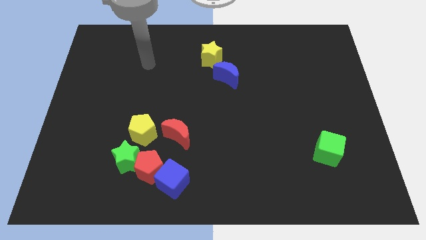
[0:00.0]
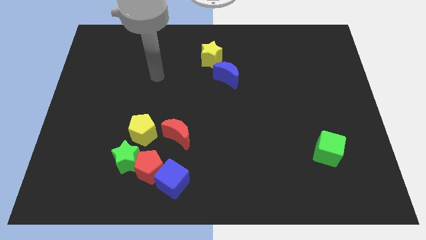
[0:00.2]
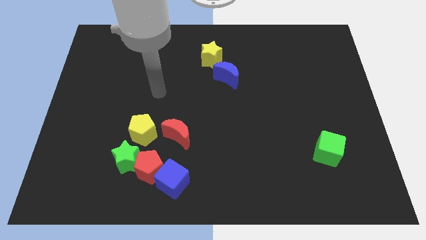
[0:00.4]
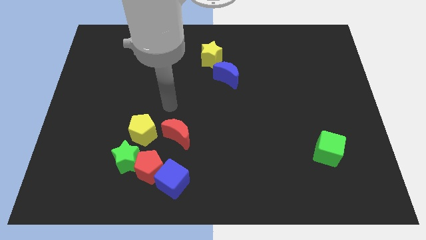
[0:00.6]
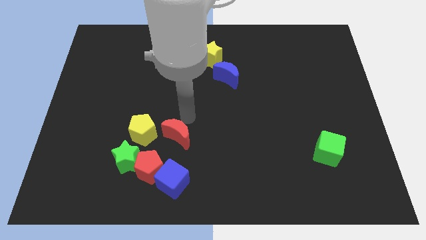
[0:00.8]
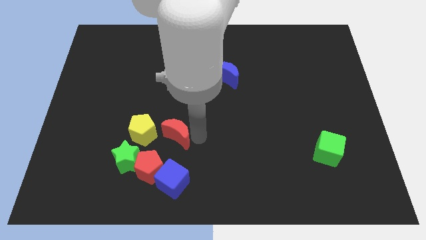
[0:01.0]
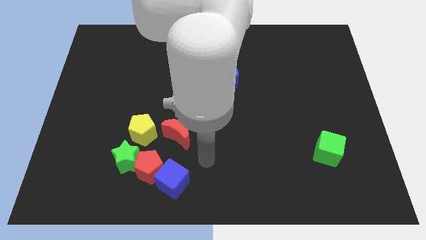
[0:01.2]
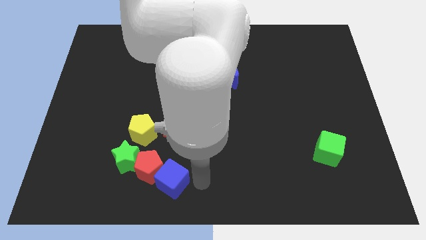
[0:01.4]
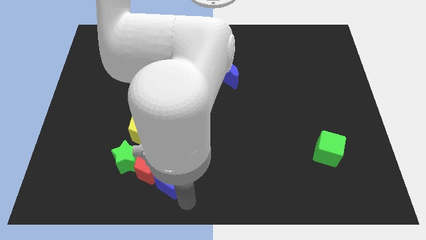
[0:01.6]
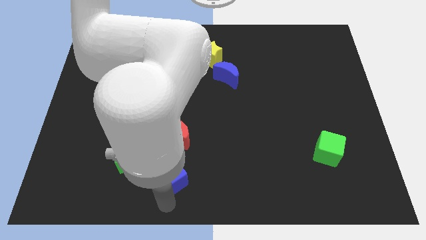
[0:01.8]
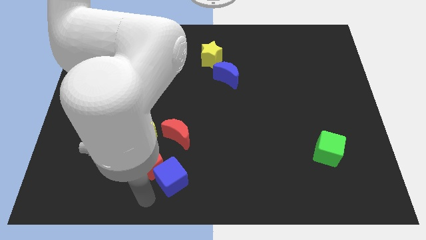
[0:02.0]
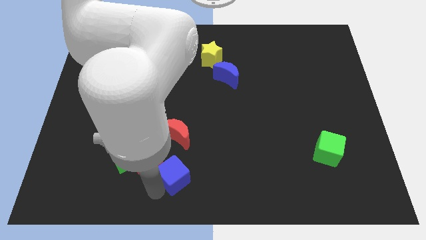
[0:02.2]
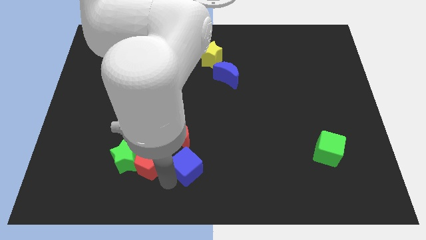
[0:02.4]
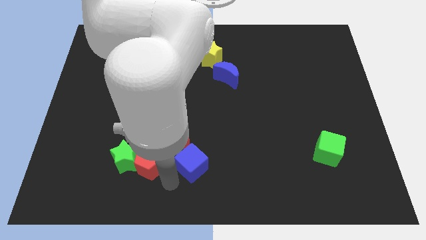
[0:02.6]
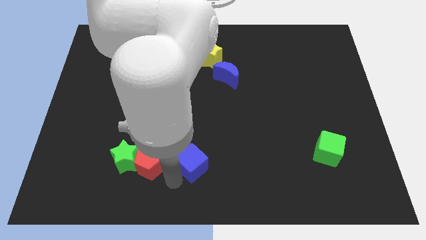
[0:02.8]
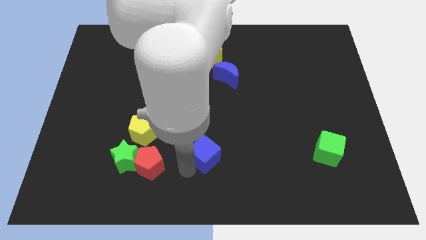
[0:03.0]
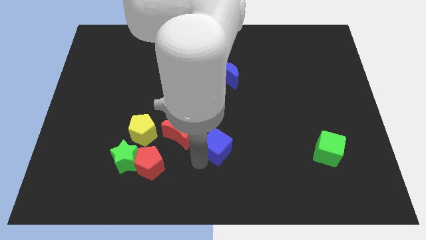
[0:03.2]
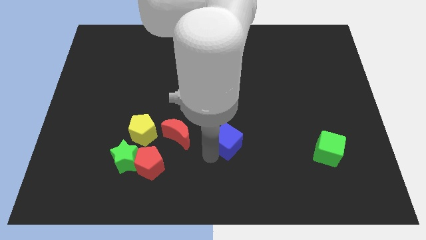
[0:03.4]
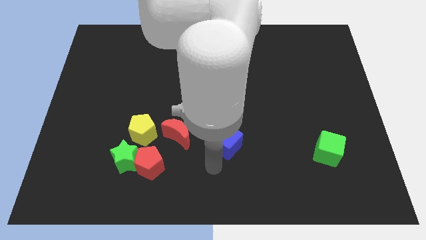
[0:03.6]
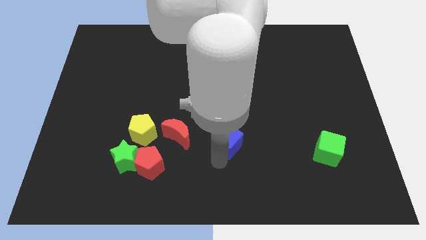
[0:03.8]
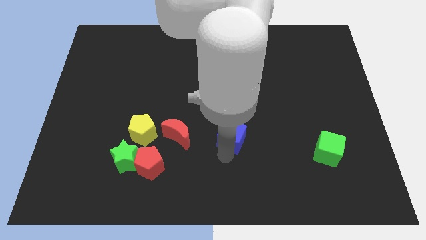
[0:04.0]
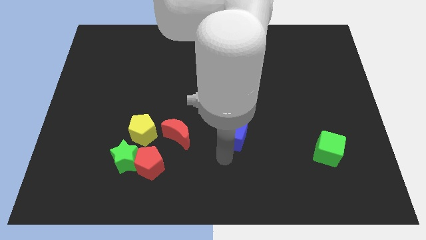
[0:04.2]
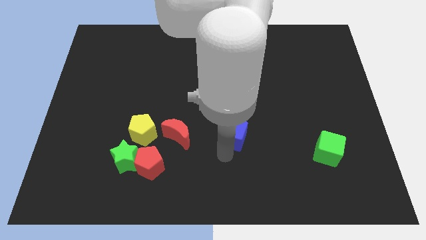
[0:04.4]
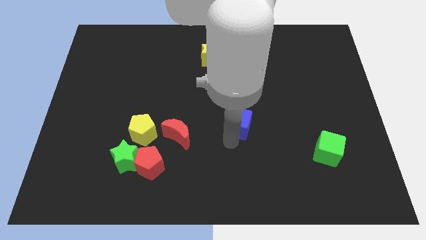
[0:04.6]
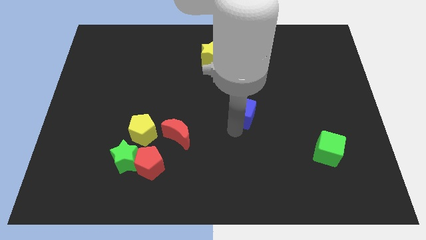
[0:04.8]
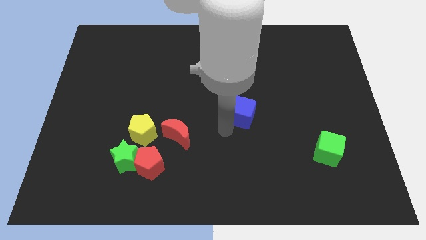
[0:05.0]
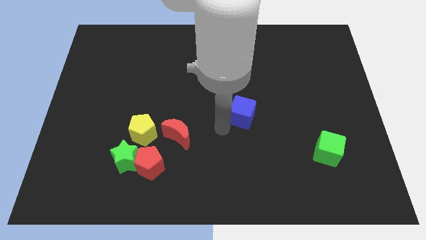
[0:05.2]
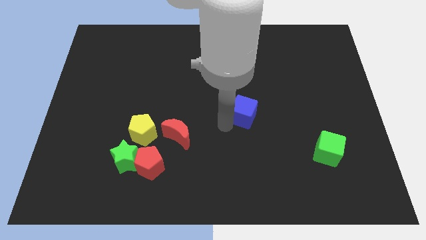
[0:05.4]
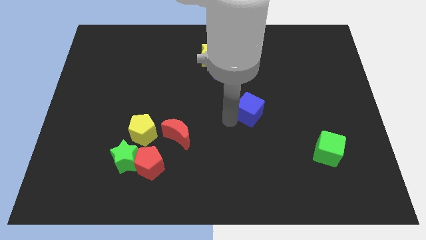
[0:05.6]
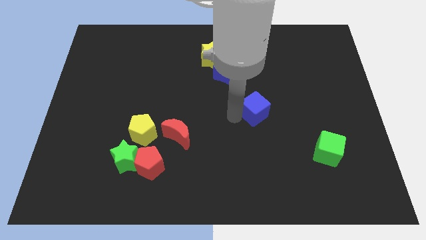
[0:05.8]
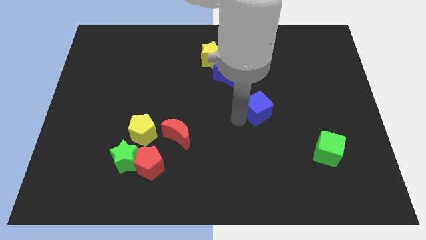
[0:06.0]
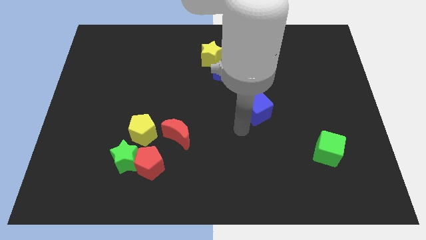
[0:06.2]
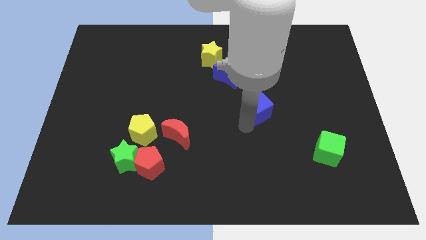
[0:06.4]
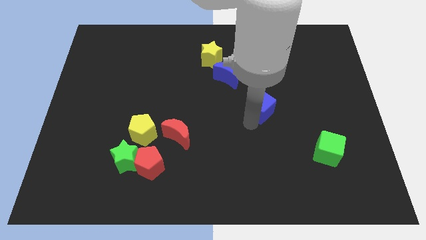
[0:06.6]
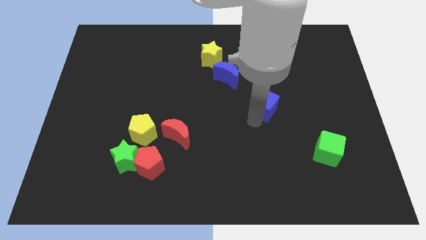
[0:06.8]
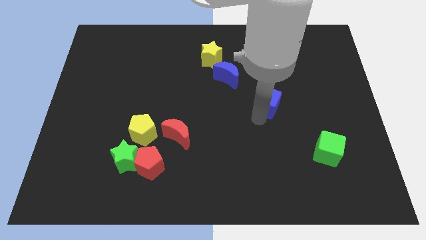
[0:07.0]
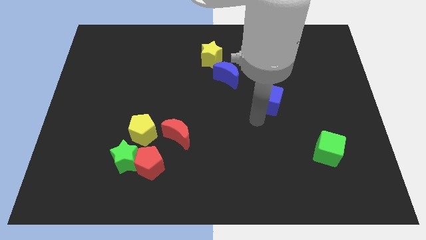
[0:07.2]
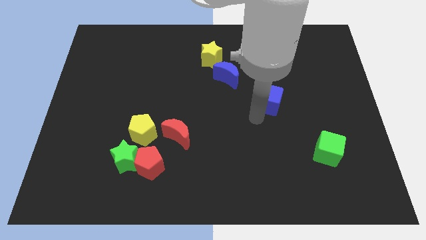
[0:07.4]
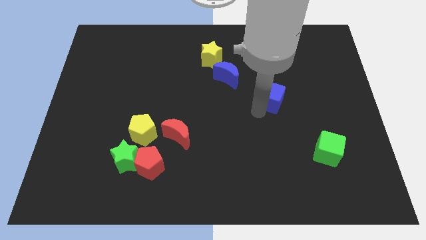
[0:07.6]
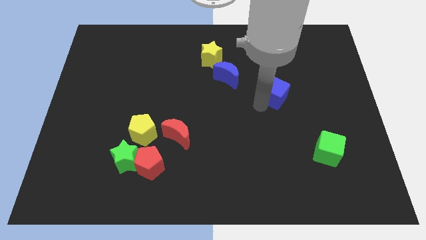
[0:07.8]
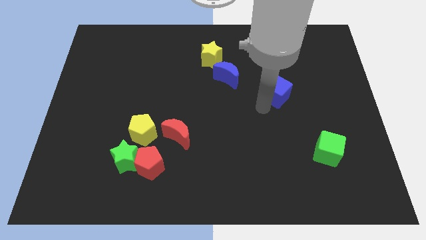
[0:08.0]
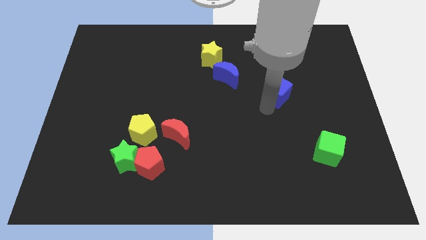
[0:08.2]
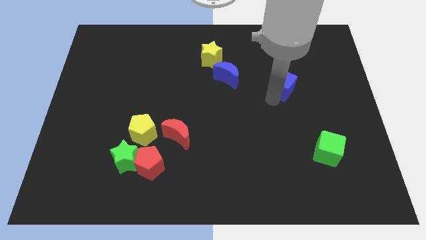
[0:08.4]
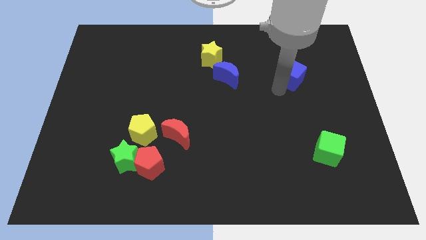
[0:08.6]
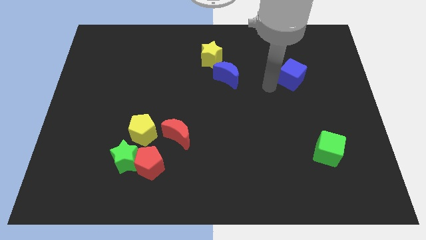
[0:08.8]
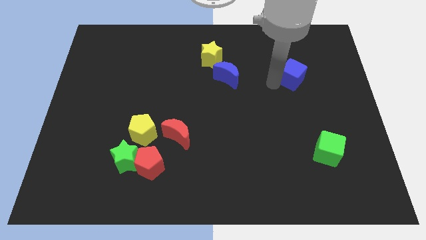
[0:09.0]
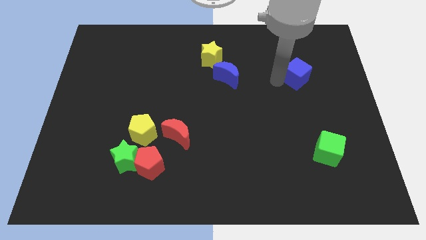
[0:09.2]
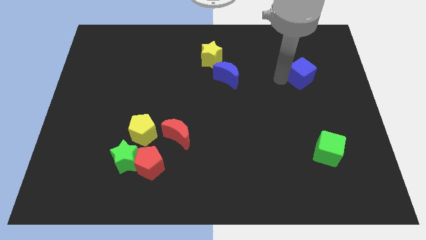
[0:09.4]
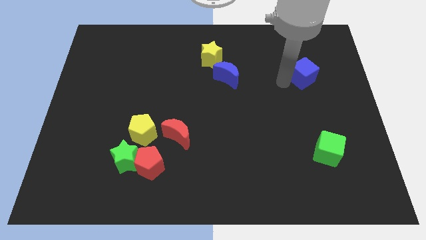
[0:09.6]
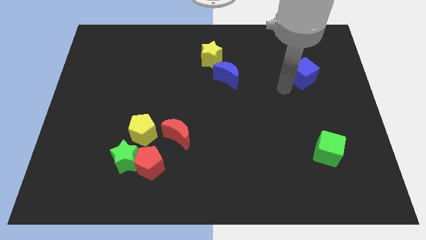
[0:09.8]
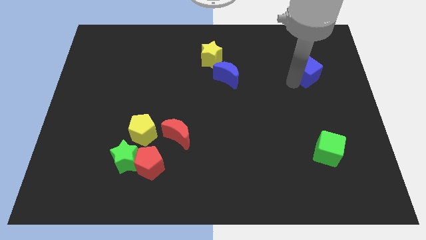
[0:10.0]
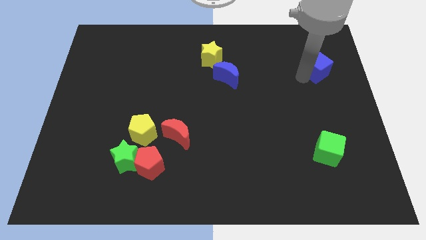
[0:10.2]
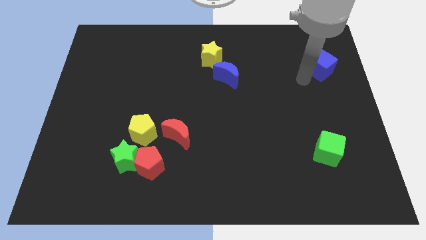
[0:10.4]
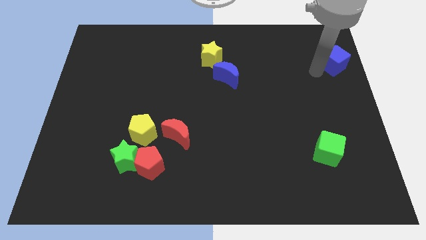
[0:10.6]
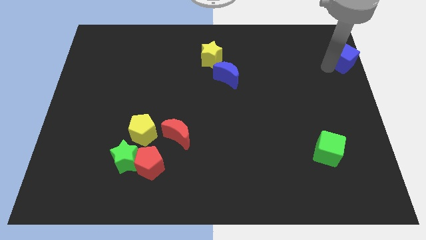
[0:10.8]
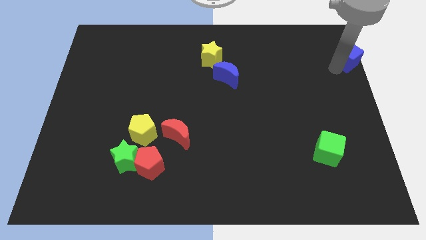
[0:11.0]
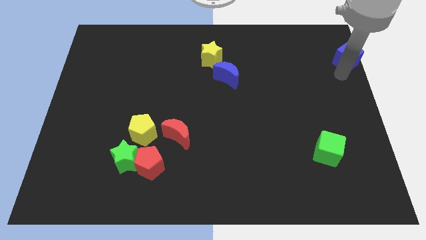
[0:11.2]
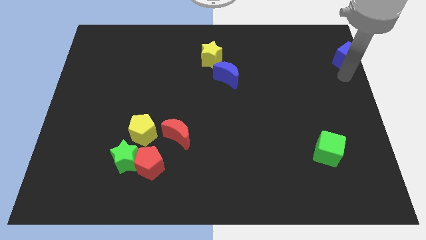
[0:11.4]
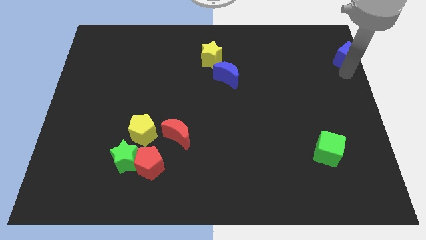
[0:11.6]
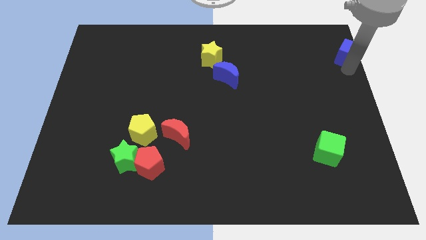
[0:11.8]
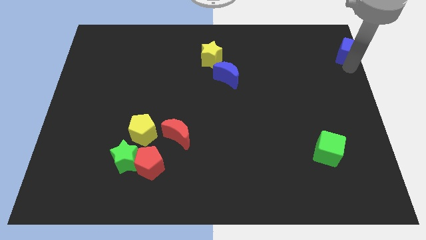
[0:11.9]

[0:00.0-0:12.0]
push the blue cube to the upper right corner

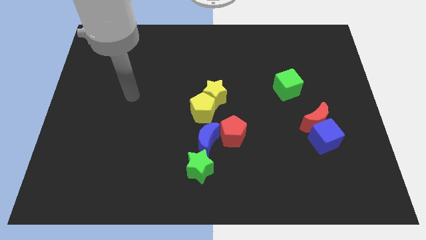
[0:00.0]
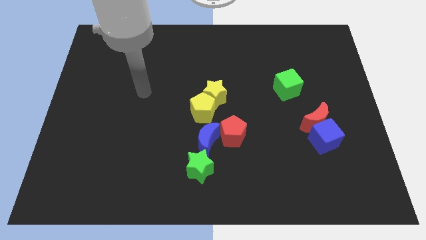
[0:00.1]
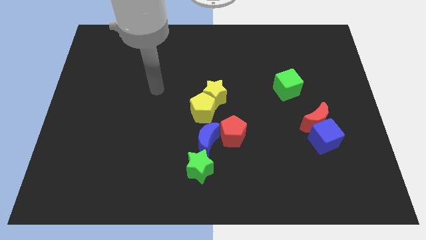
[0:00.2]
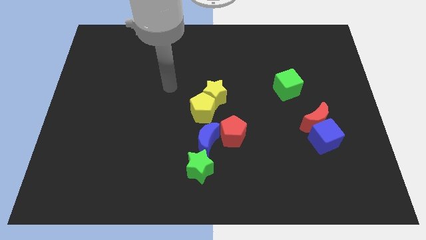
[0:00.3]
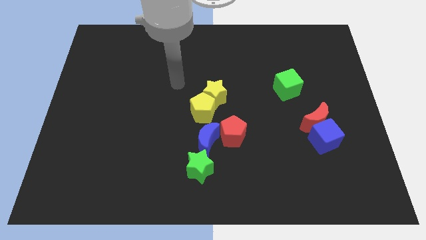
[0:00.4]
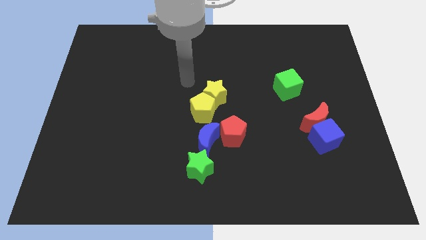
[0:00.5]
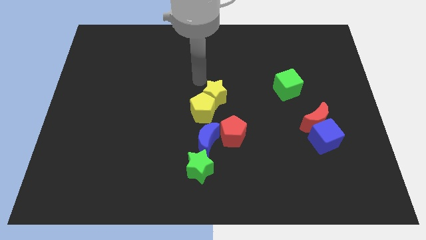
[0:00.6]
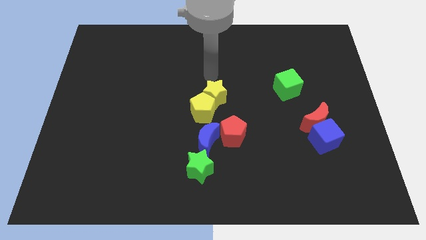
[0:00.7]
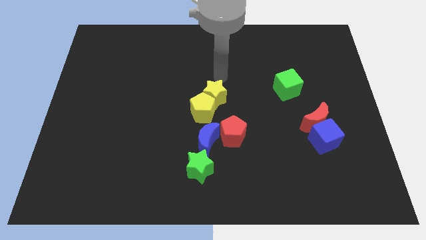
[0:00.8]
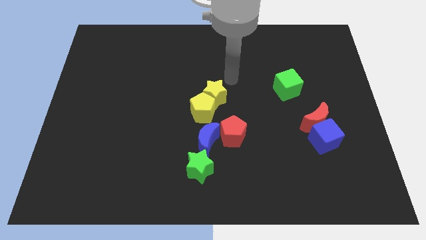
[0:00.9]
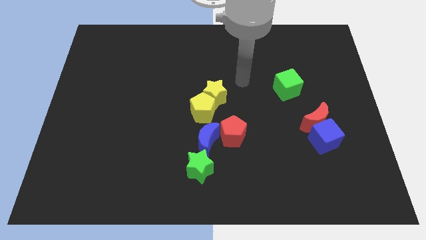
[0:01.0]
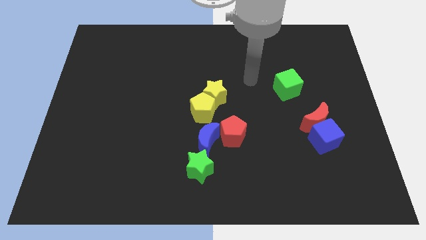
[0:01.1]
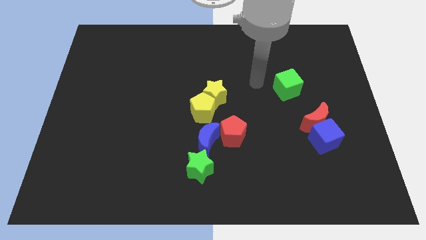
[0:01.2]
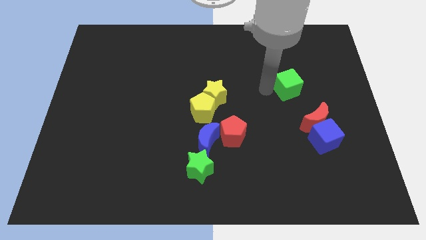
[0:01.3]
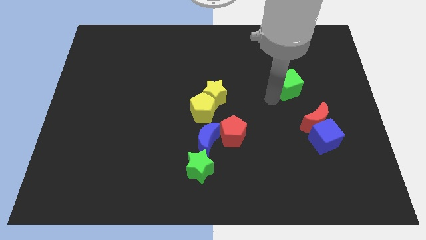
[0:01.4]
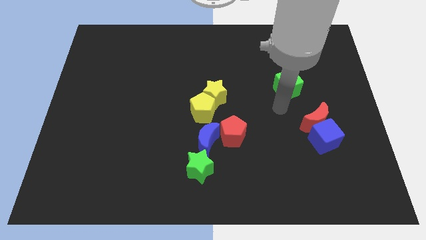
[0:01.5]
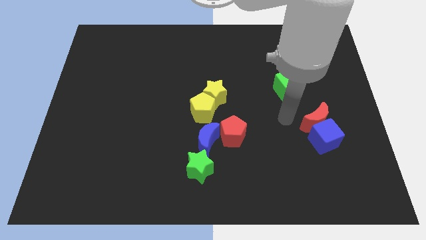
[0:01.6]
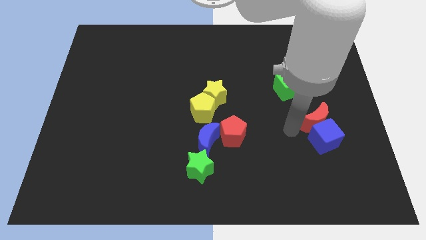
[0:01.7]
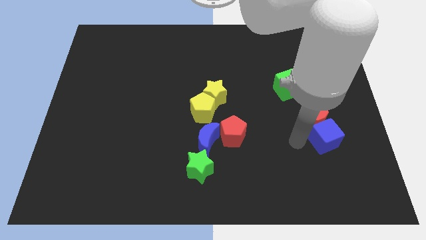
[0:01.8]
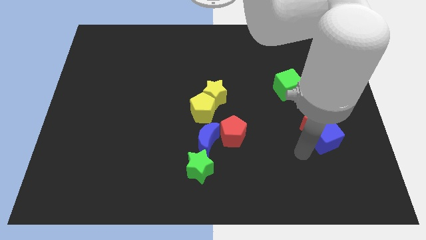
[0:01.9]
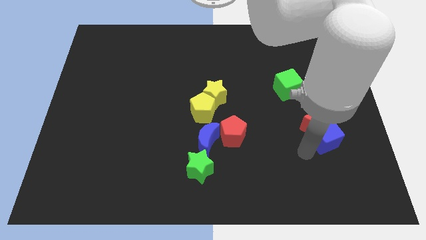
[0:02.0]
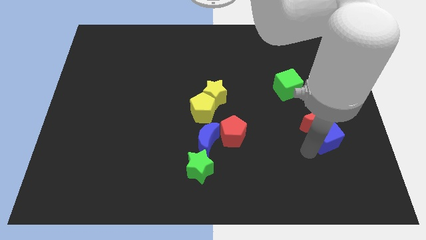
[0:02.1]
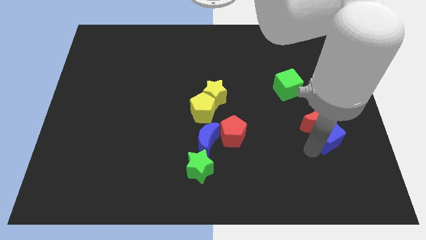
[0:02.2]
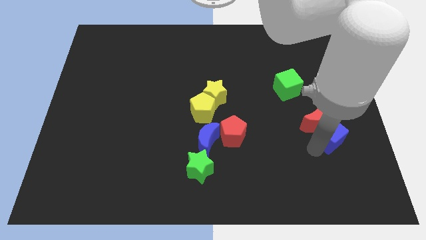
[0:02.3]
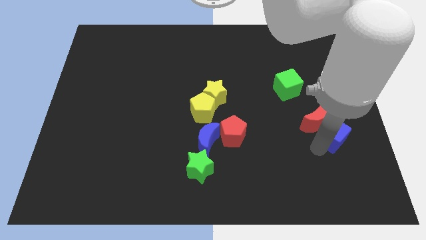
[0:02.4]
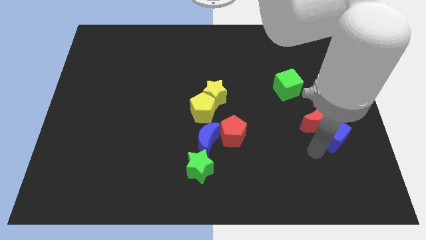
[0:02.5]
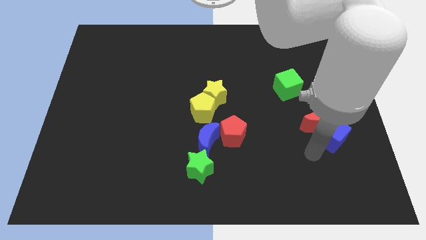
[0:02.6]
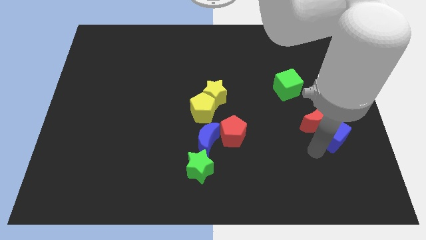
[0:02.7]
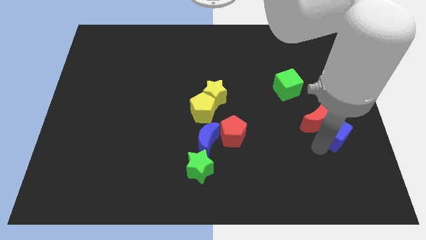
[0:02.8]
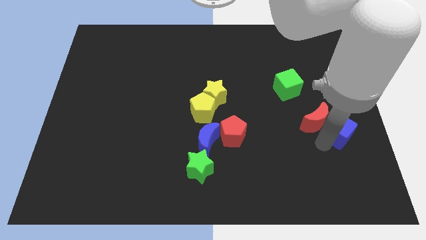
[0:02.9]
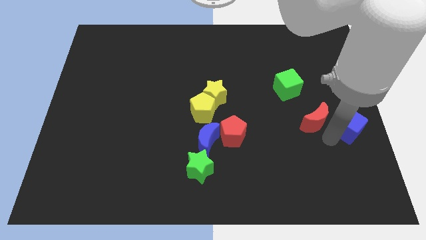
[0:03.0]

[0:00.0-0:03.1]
put the blue cube to the center right
